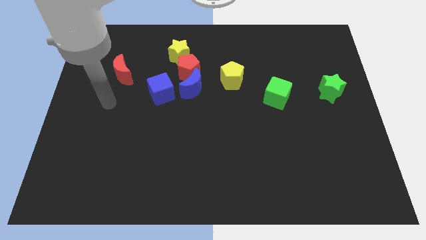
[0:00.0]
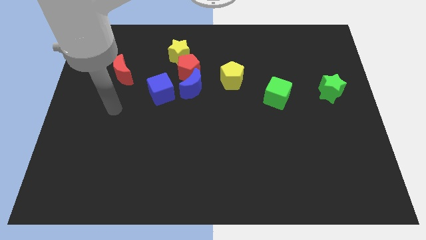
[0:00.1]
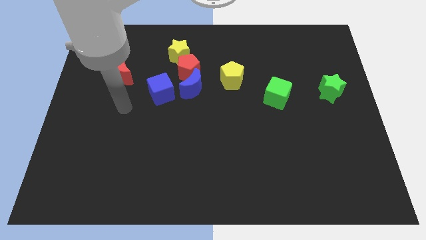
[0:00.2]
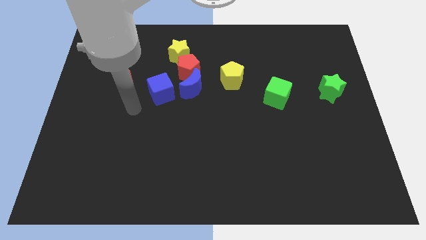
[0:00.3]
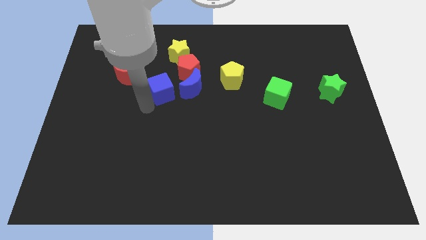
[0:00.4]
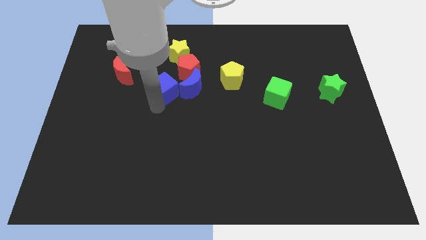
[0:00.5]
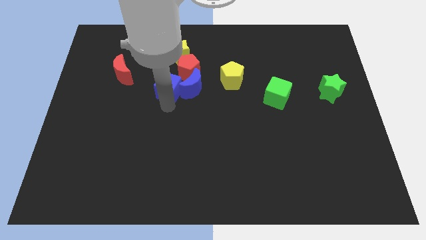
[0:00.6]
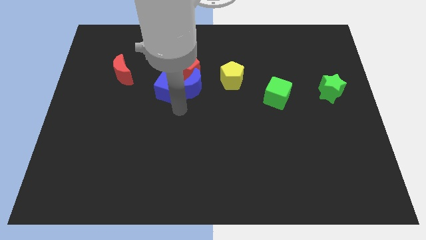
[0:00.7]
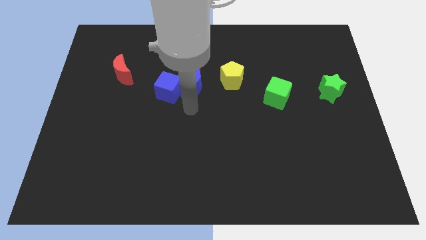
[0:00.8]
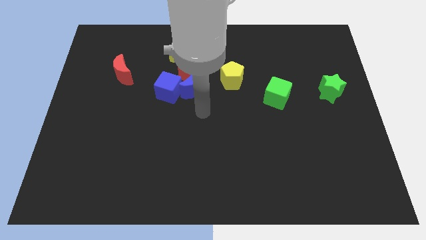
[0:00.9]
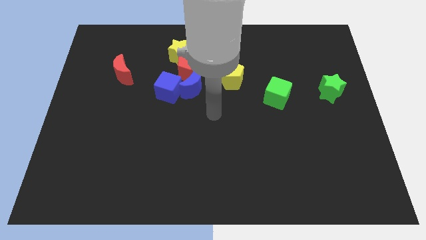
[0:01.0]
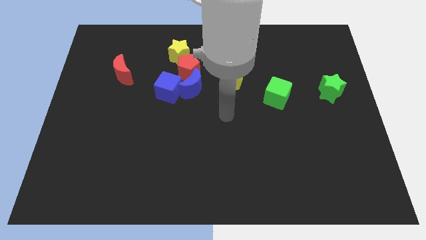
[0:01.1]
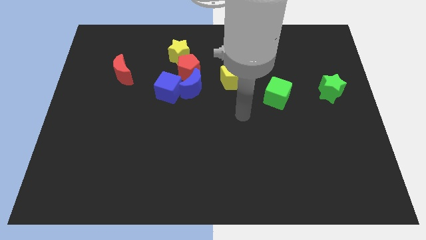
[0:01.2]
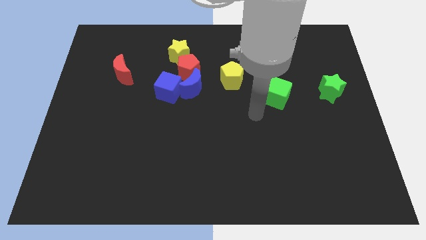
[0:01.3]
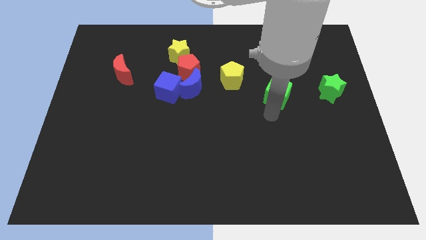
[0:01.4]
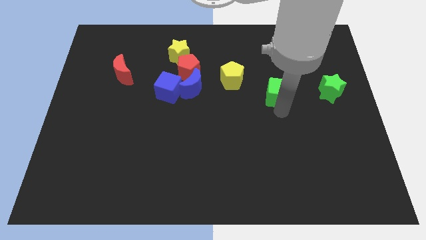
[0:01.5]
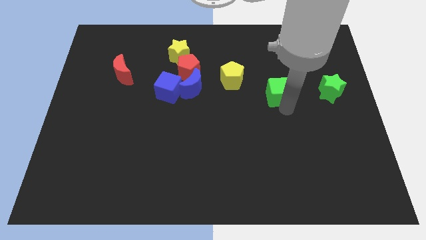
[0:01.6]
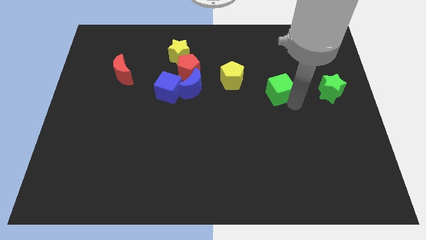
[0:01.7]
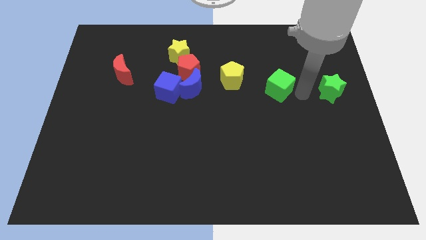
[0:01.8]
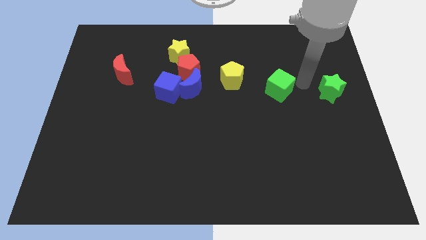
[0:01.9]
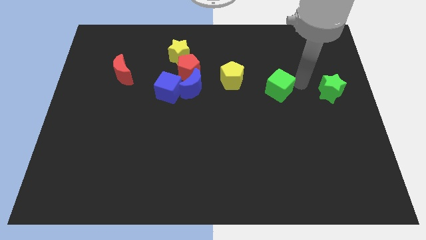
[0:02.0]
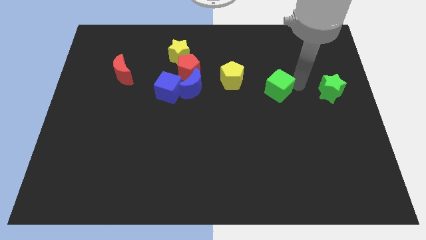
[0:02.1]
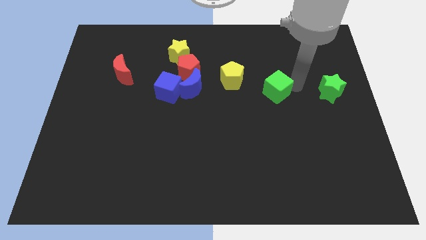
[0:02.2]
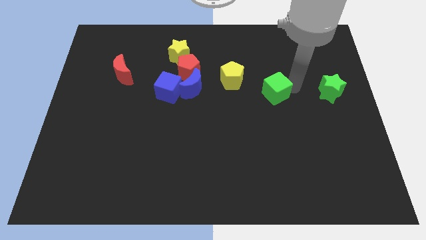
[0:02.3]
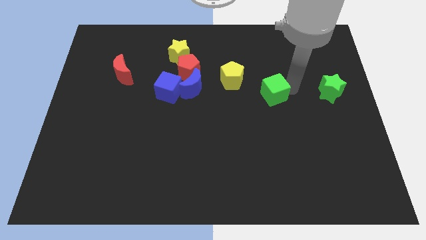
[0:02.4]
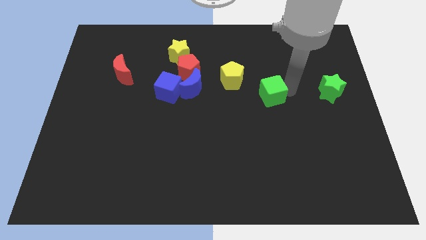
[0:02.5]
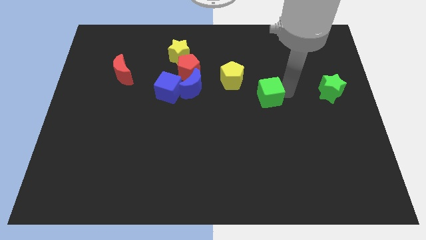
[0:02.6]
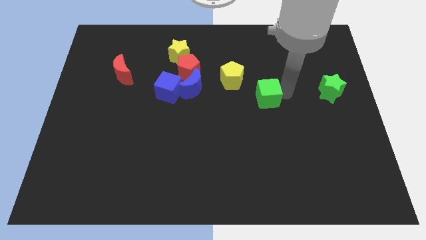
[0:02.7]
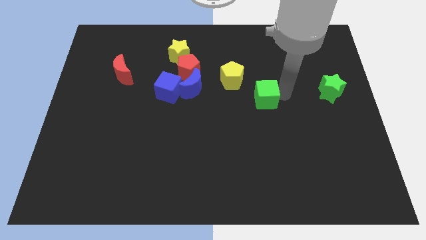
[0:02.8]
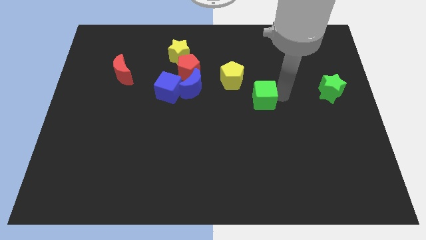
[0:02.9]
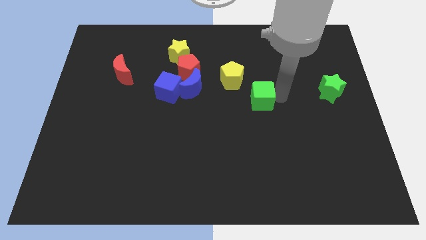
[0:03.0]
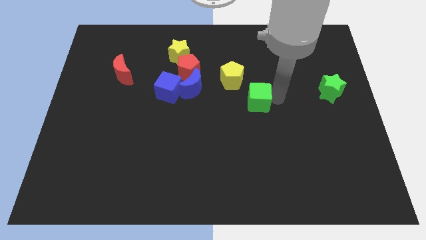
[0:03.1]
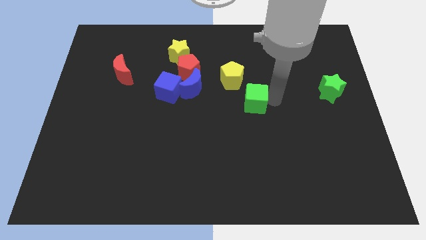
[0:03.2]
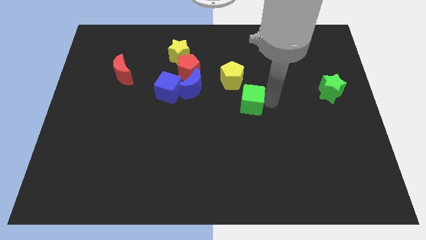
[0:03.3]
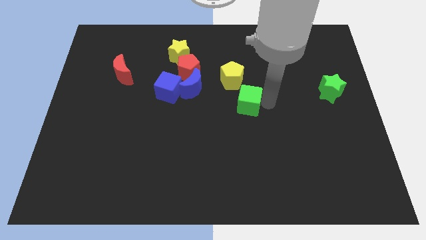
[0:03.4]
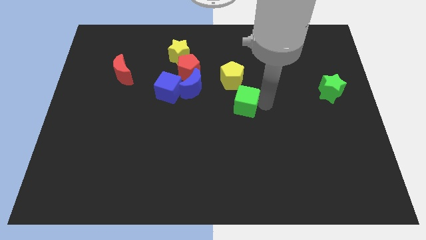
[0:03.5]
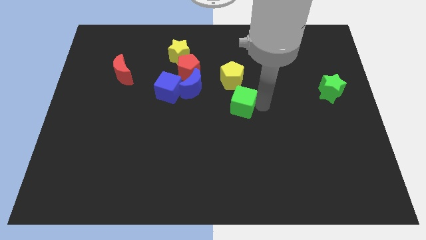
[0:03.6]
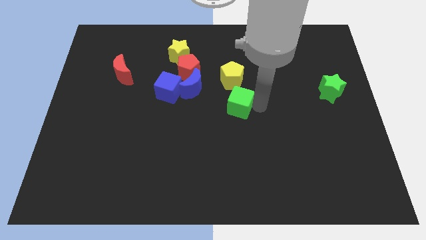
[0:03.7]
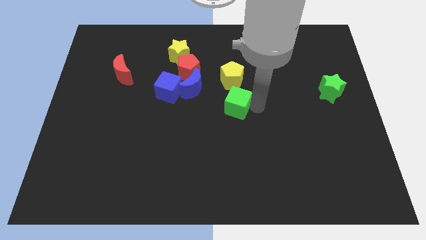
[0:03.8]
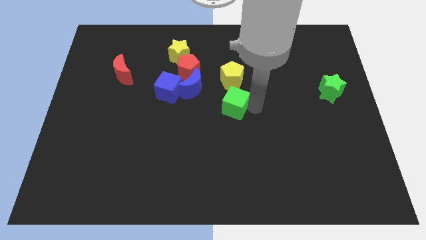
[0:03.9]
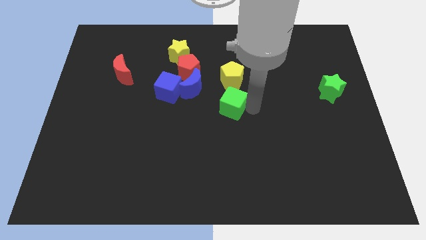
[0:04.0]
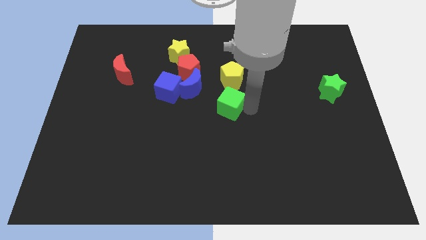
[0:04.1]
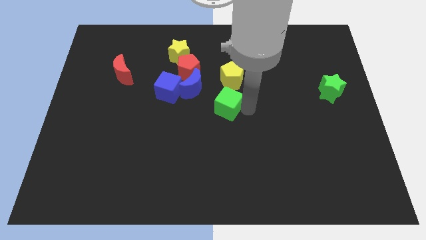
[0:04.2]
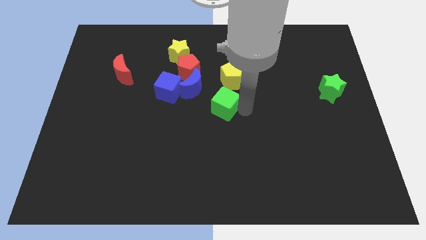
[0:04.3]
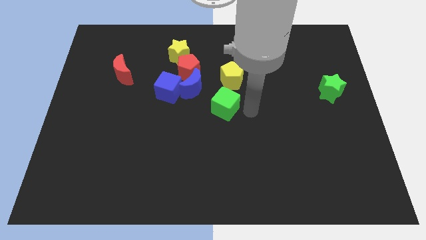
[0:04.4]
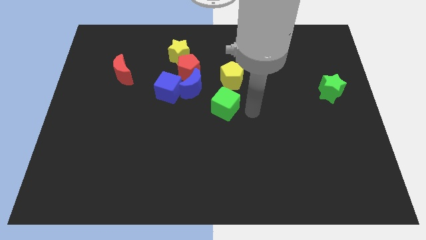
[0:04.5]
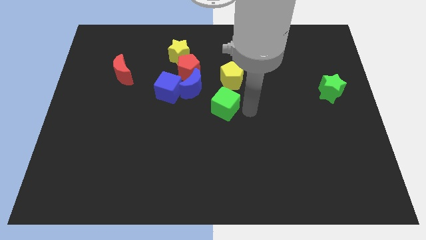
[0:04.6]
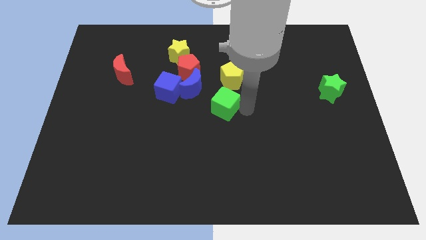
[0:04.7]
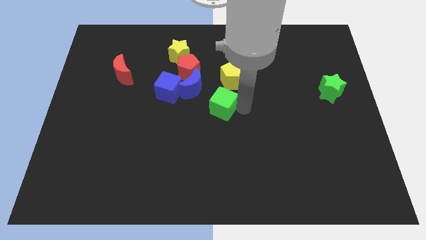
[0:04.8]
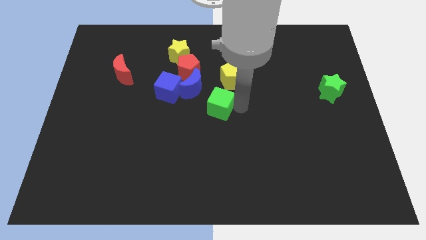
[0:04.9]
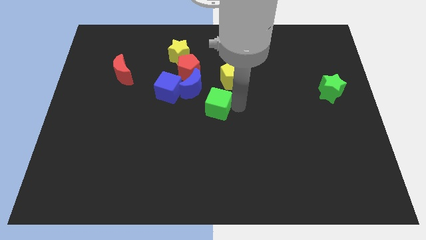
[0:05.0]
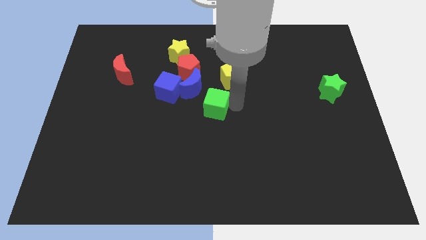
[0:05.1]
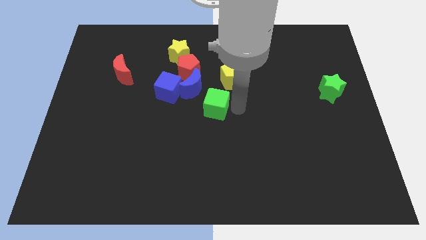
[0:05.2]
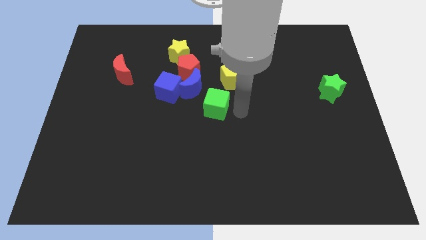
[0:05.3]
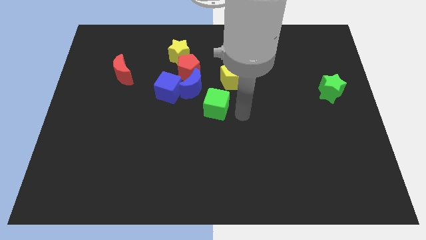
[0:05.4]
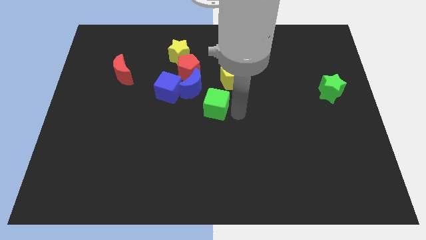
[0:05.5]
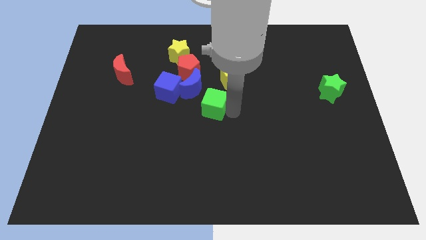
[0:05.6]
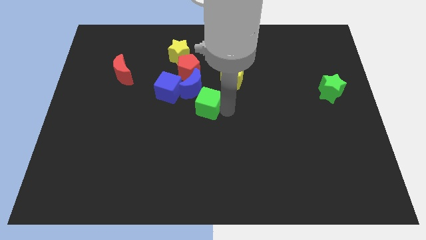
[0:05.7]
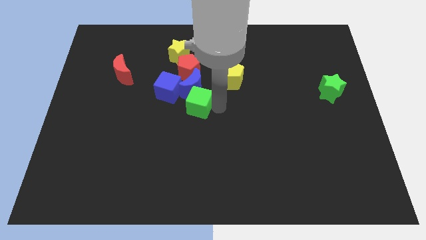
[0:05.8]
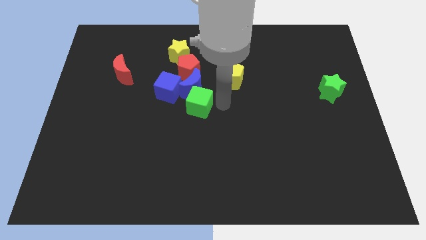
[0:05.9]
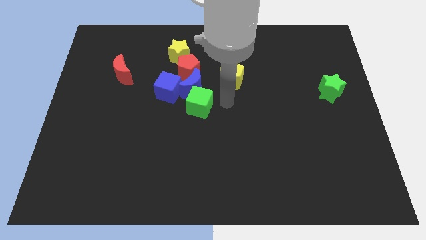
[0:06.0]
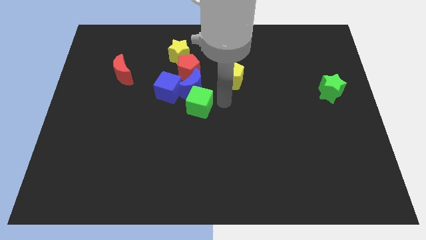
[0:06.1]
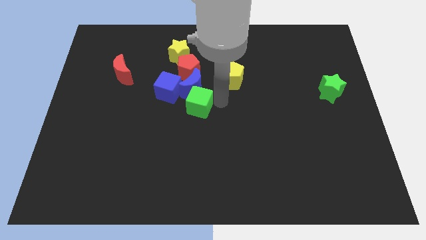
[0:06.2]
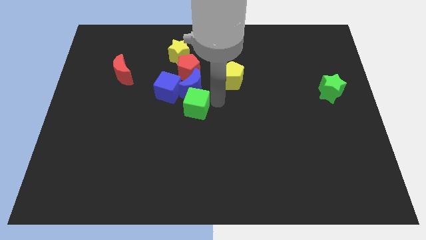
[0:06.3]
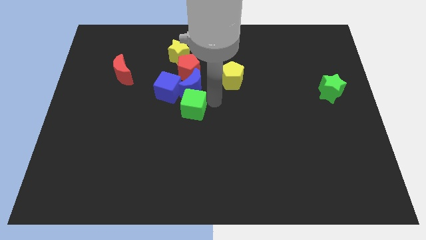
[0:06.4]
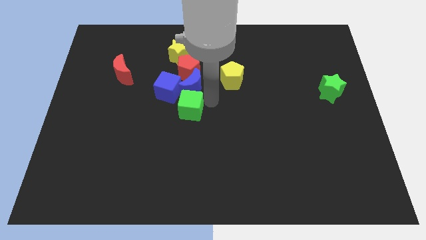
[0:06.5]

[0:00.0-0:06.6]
push the green cube to the left

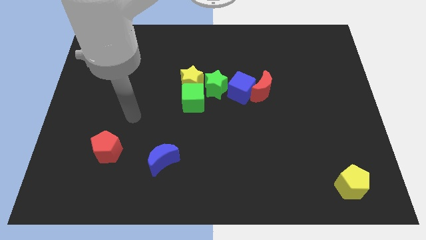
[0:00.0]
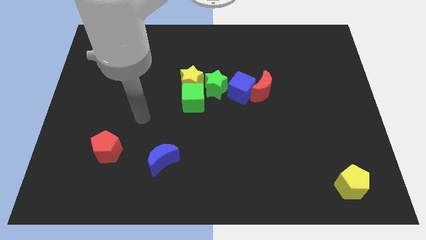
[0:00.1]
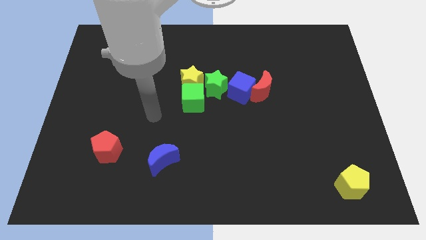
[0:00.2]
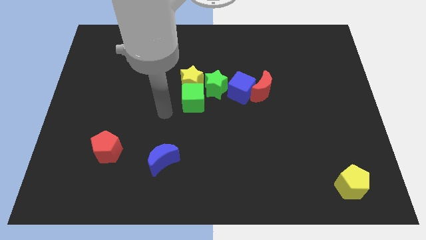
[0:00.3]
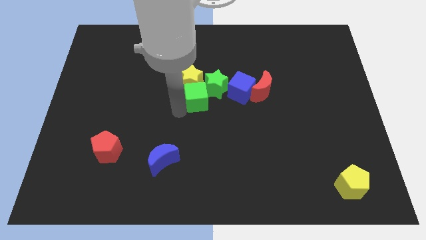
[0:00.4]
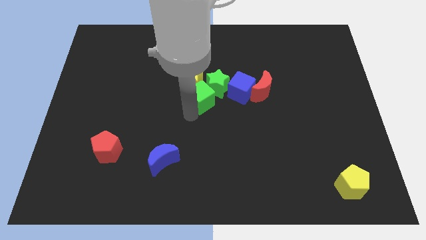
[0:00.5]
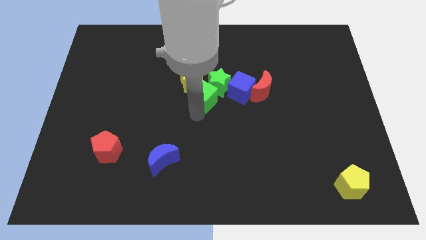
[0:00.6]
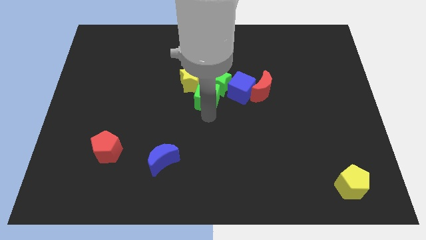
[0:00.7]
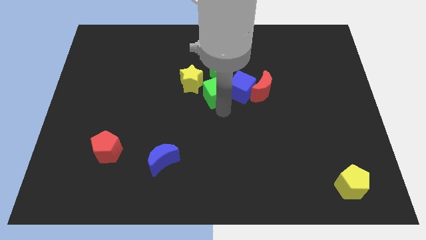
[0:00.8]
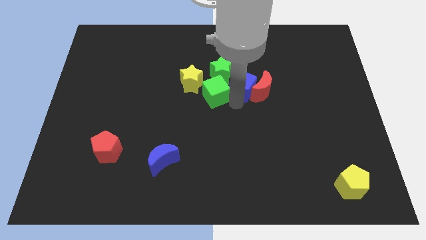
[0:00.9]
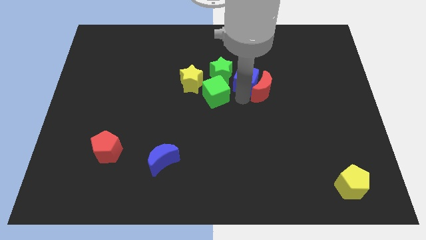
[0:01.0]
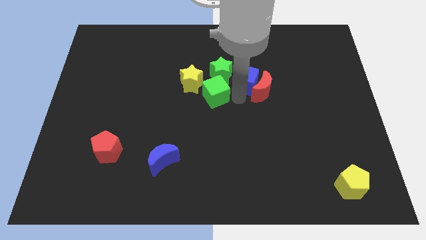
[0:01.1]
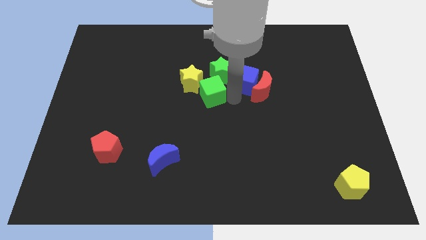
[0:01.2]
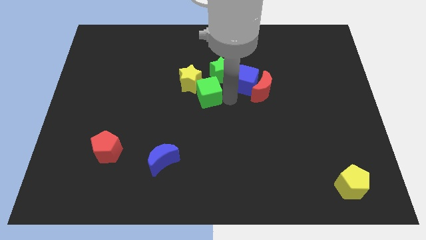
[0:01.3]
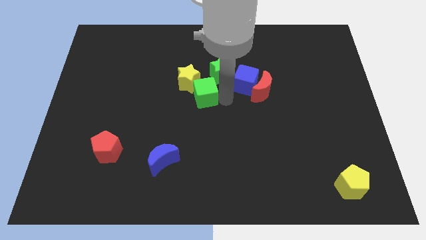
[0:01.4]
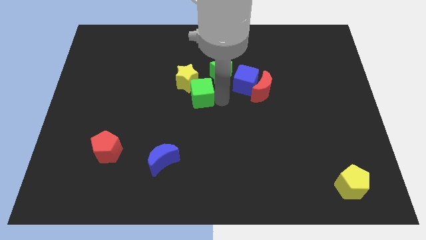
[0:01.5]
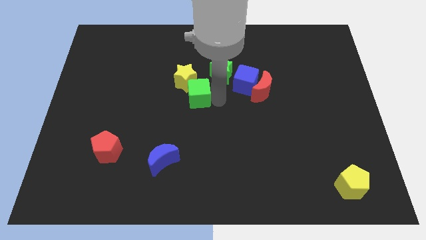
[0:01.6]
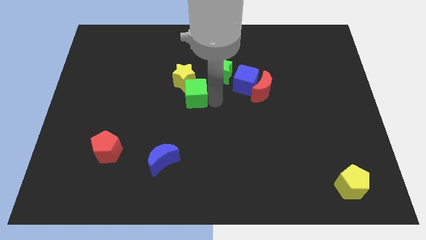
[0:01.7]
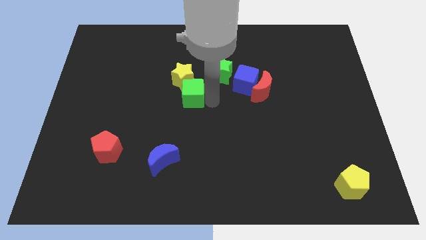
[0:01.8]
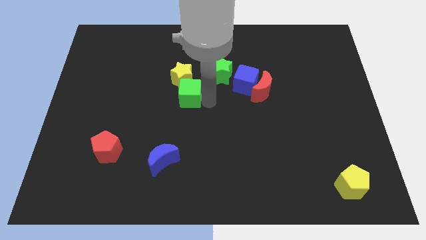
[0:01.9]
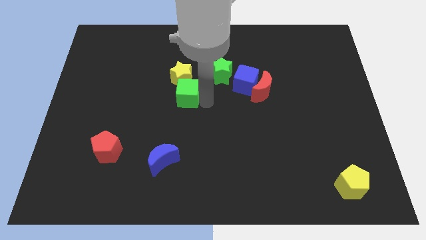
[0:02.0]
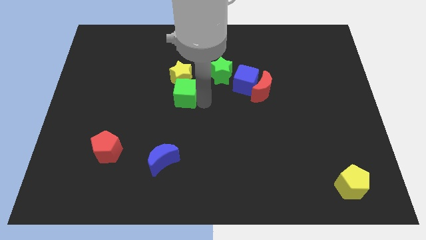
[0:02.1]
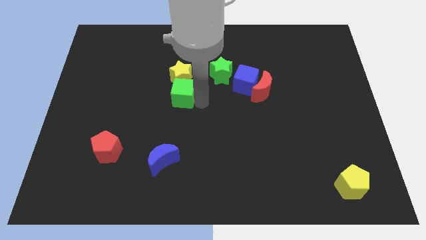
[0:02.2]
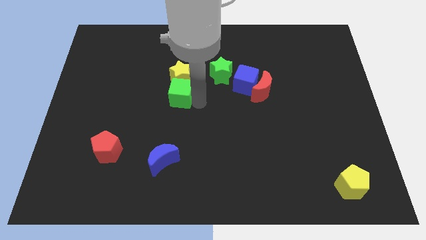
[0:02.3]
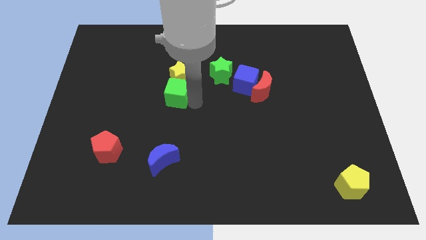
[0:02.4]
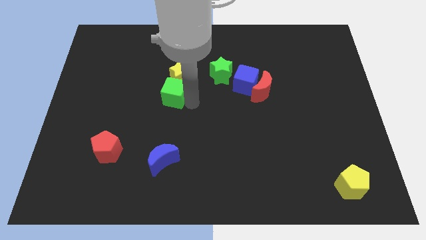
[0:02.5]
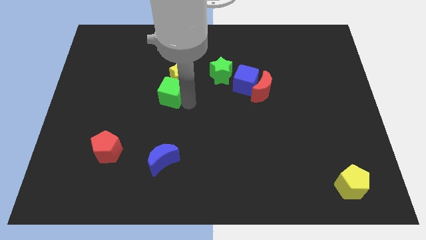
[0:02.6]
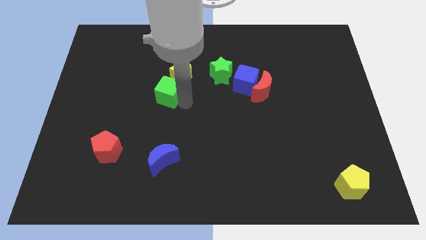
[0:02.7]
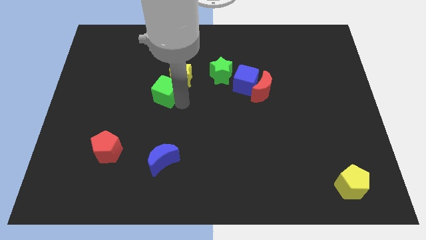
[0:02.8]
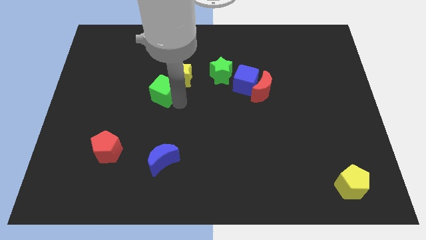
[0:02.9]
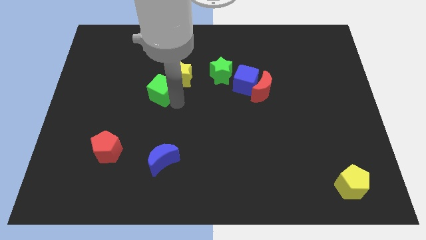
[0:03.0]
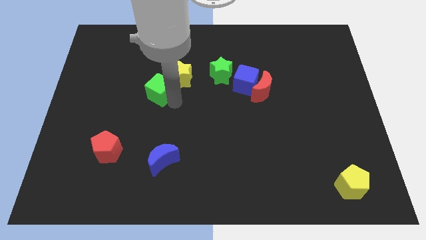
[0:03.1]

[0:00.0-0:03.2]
slightly move the green cube up and then to the left
